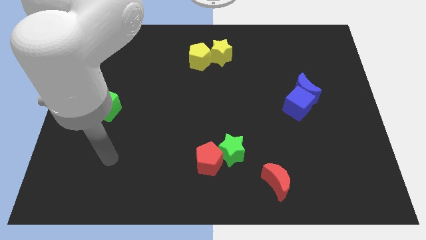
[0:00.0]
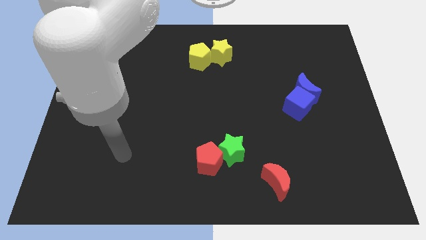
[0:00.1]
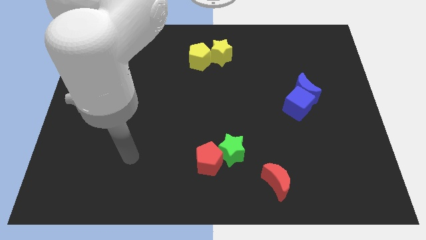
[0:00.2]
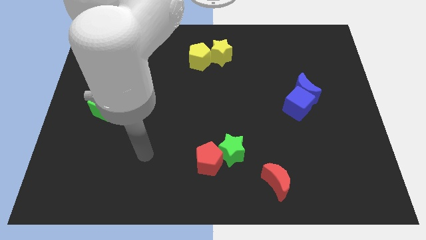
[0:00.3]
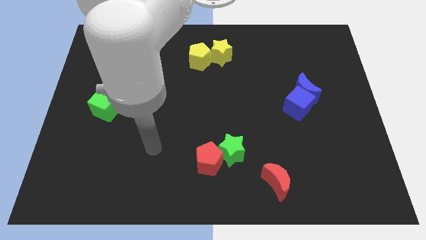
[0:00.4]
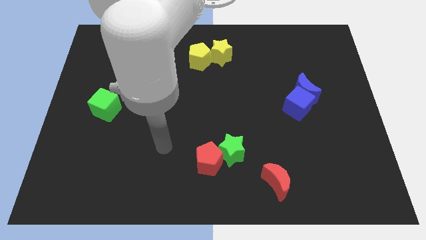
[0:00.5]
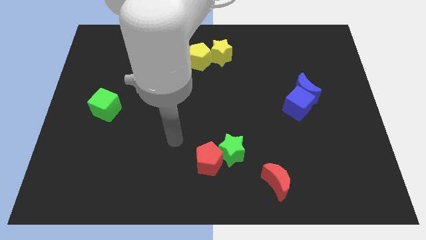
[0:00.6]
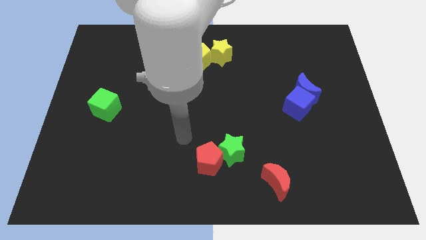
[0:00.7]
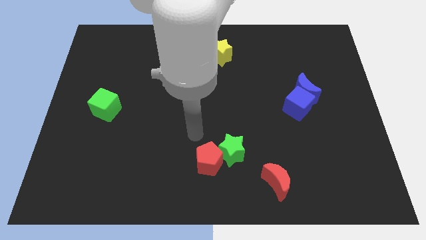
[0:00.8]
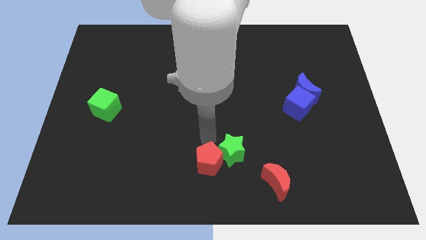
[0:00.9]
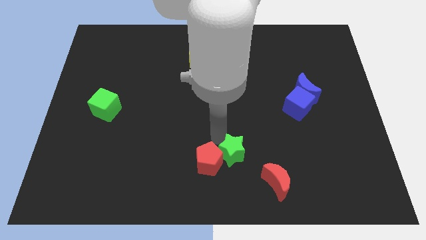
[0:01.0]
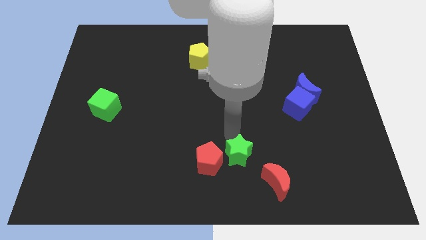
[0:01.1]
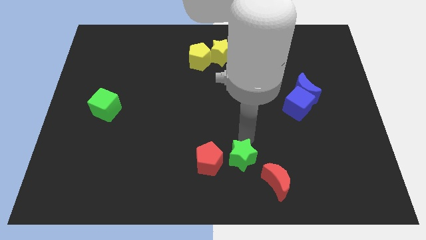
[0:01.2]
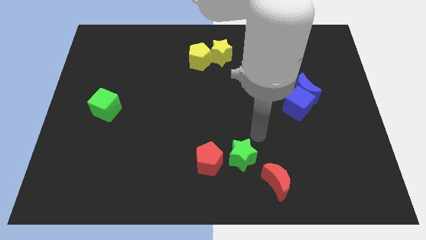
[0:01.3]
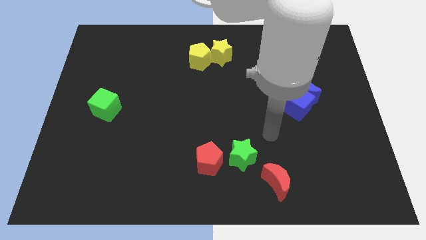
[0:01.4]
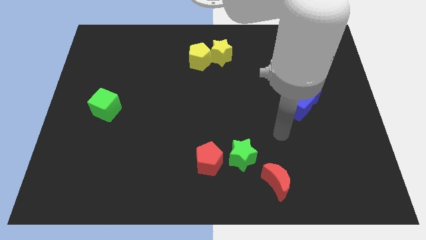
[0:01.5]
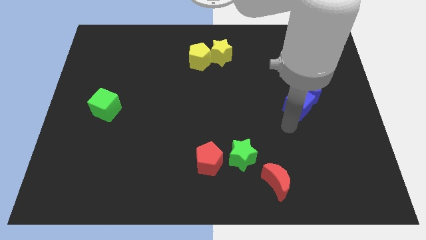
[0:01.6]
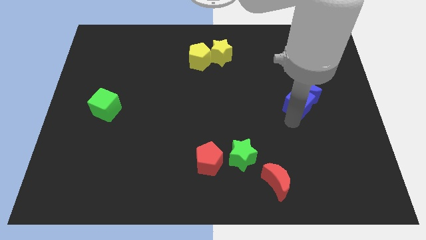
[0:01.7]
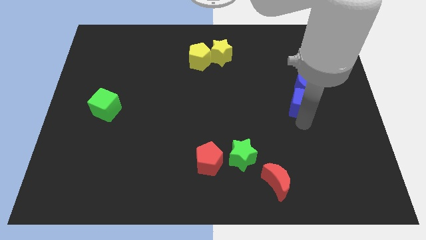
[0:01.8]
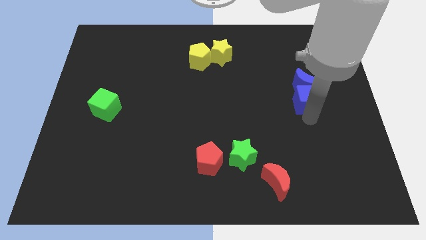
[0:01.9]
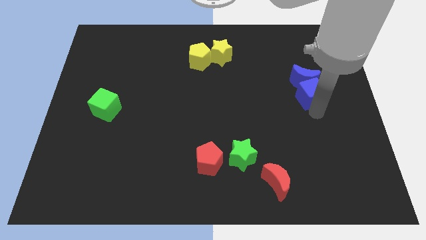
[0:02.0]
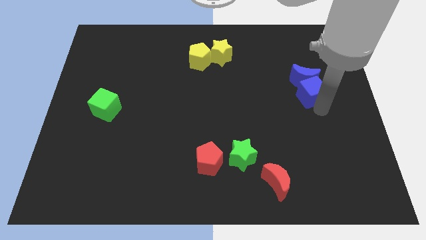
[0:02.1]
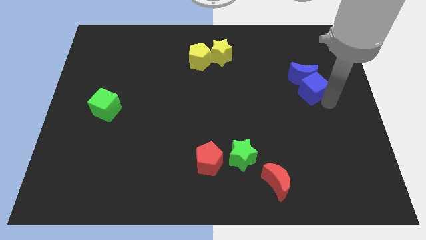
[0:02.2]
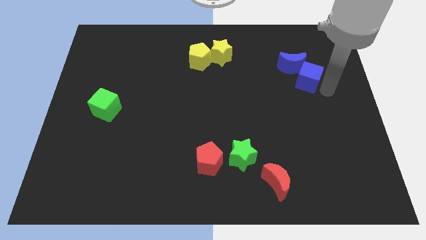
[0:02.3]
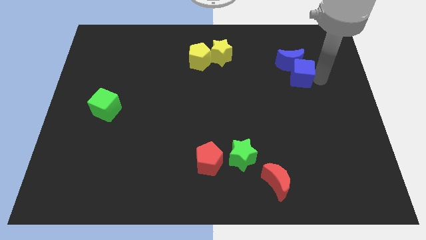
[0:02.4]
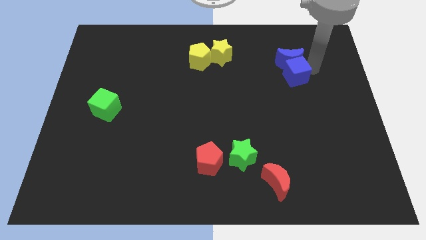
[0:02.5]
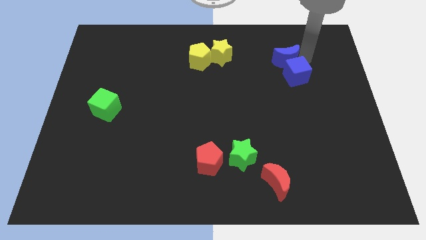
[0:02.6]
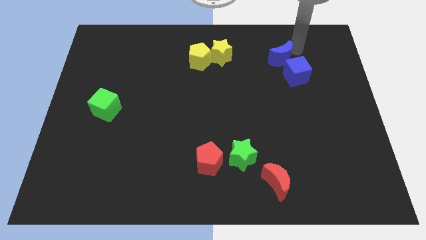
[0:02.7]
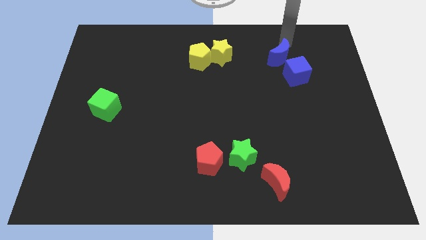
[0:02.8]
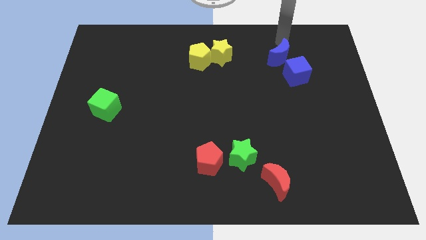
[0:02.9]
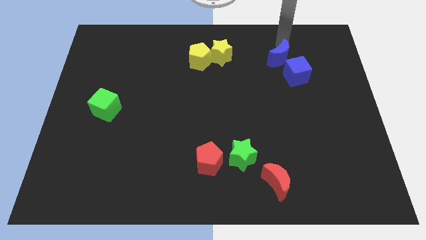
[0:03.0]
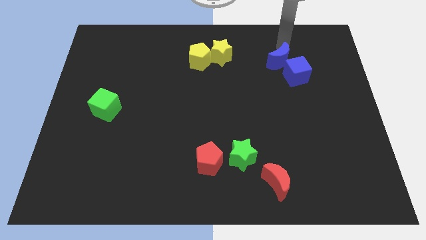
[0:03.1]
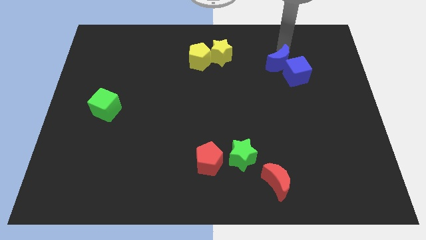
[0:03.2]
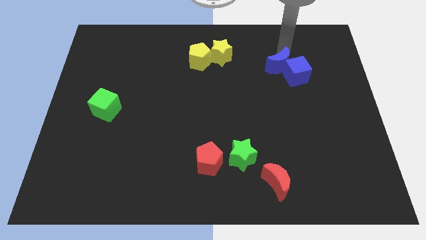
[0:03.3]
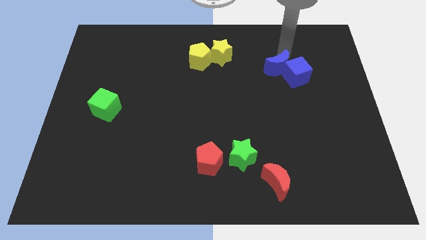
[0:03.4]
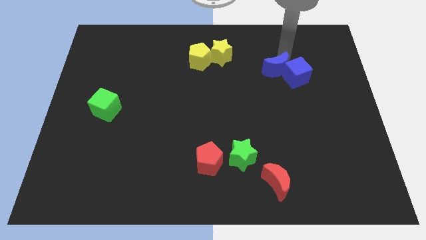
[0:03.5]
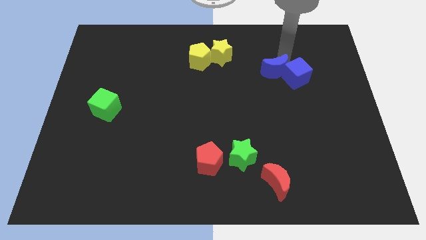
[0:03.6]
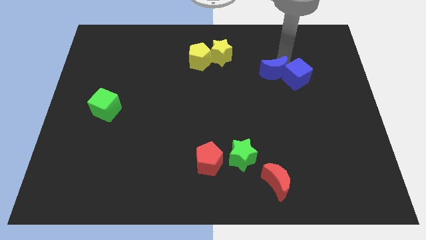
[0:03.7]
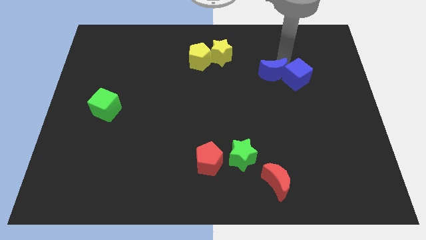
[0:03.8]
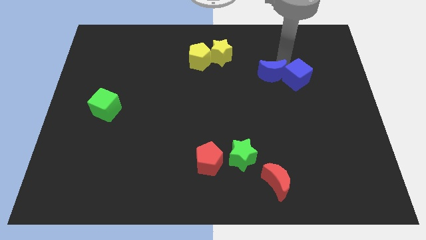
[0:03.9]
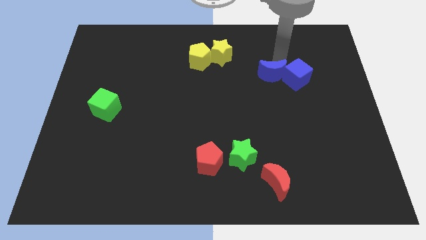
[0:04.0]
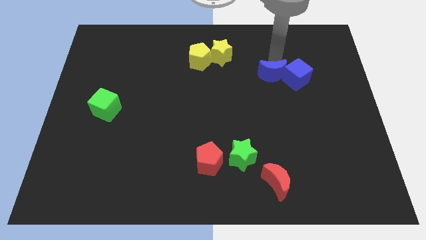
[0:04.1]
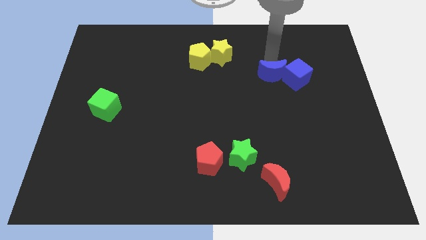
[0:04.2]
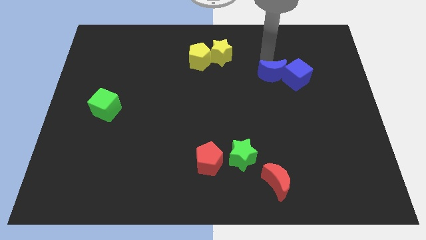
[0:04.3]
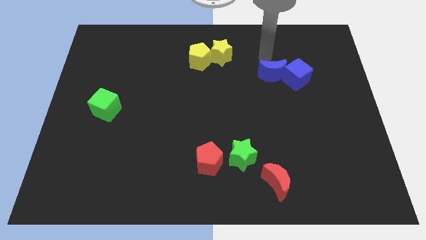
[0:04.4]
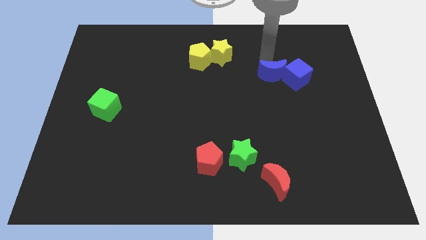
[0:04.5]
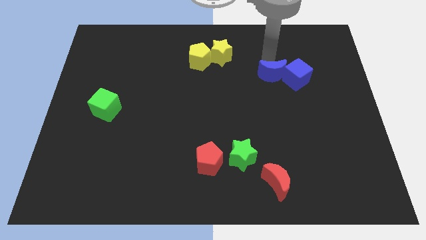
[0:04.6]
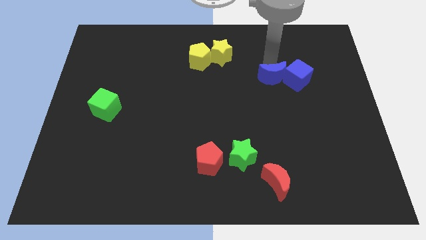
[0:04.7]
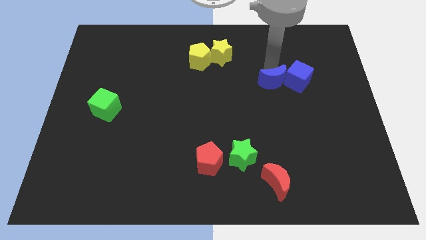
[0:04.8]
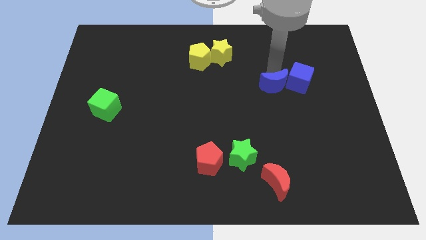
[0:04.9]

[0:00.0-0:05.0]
slide the blue moon a little bit to the left

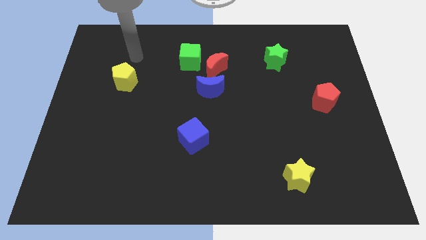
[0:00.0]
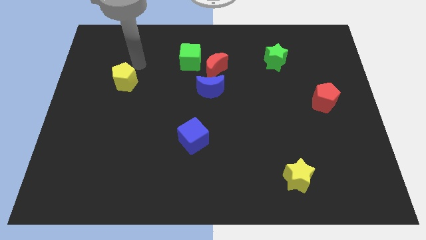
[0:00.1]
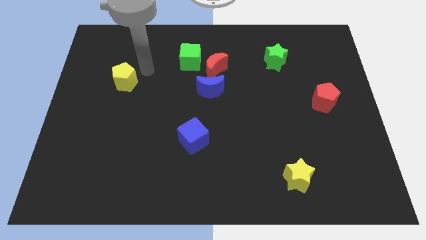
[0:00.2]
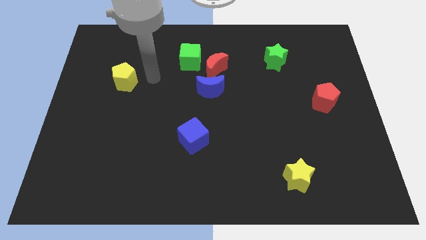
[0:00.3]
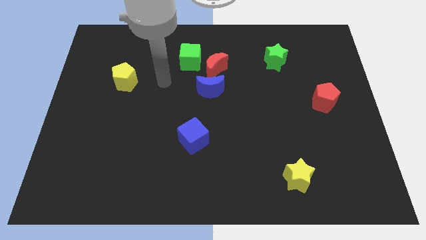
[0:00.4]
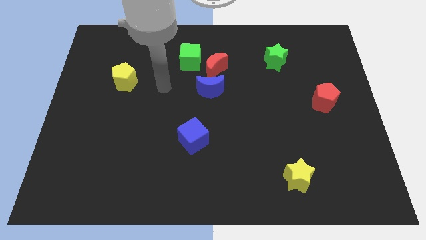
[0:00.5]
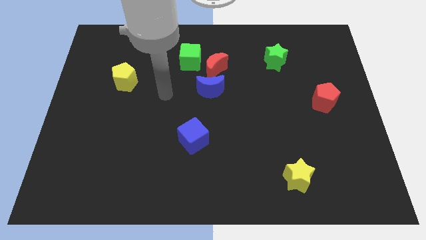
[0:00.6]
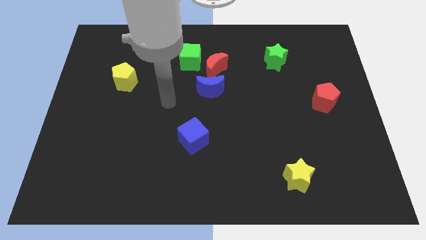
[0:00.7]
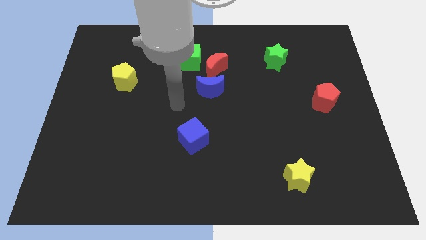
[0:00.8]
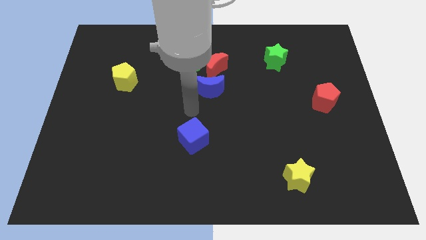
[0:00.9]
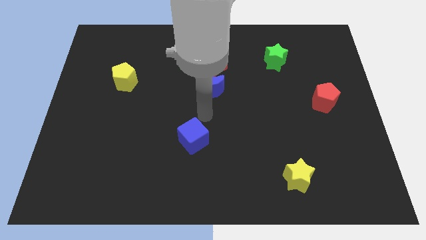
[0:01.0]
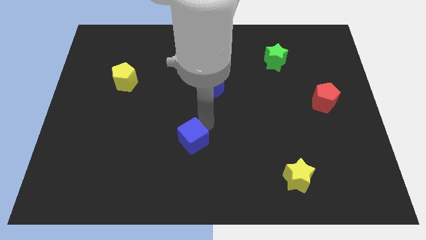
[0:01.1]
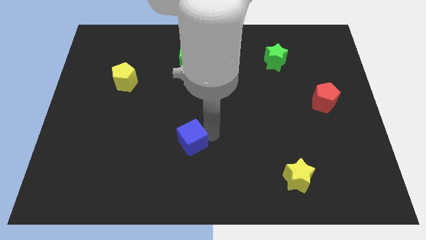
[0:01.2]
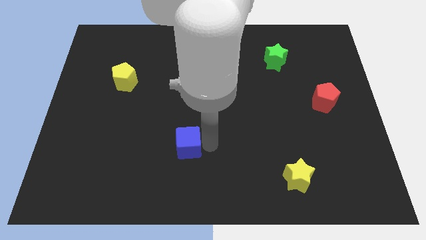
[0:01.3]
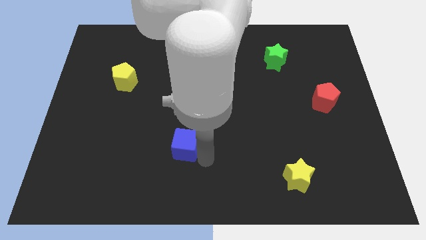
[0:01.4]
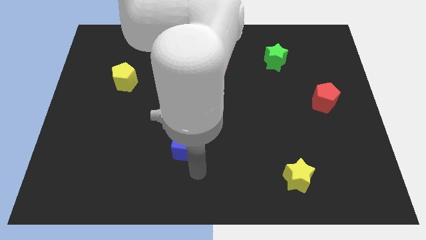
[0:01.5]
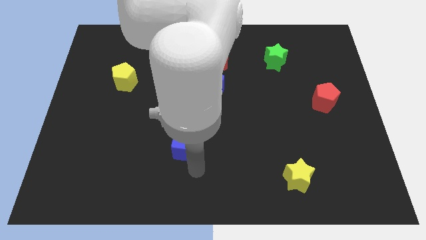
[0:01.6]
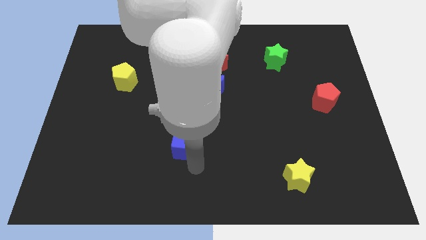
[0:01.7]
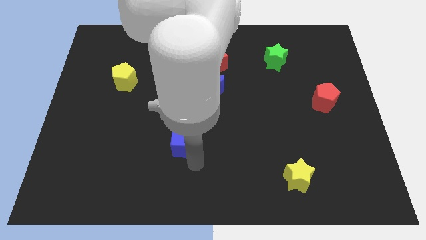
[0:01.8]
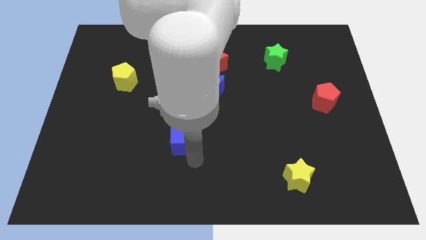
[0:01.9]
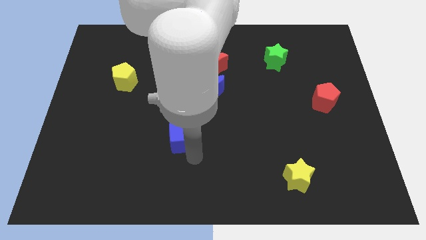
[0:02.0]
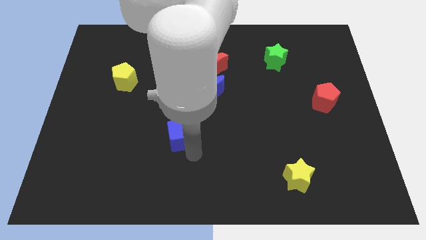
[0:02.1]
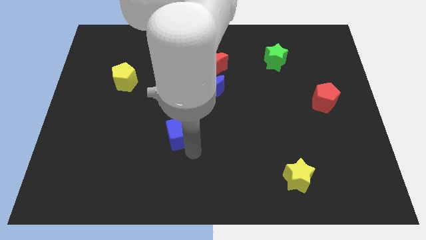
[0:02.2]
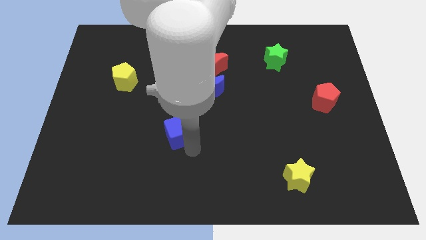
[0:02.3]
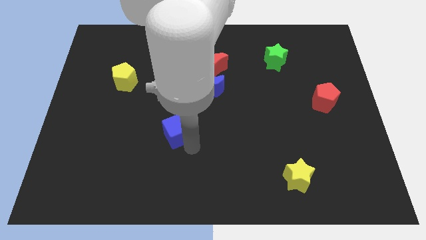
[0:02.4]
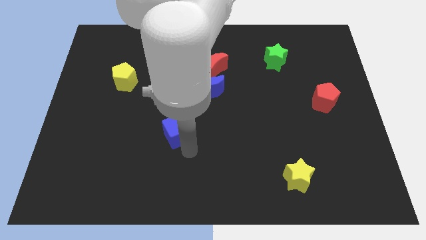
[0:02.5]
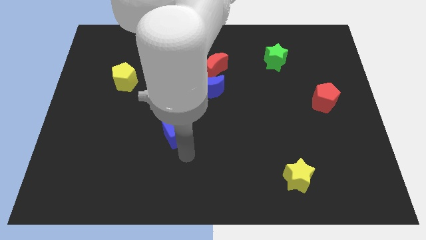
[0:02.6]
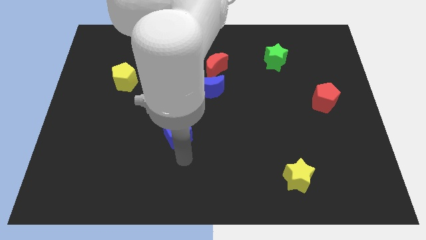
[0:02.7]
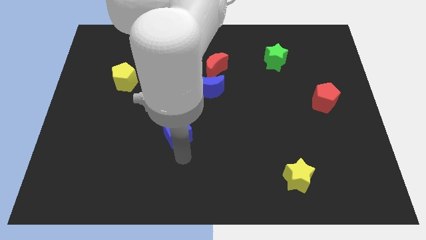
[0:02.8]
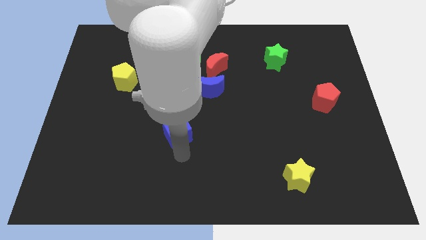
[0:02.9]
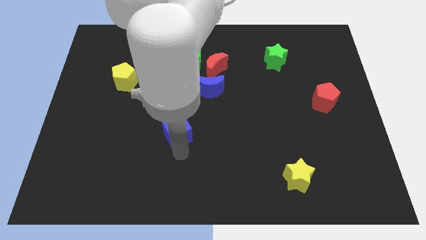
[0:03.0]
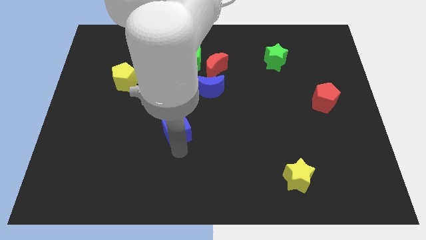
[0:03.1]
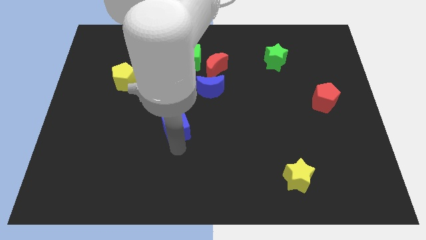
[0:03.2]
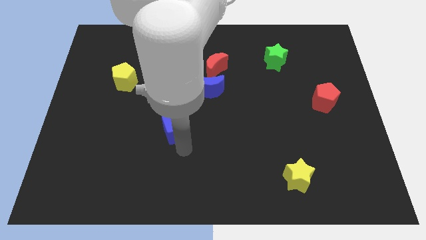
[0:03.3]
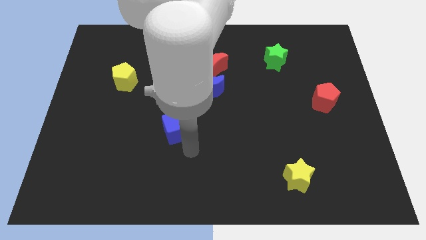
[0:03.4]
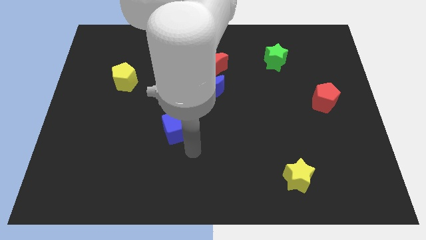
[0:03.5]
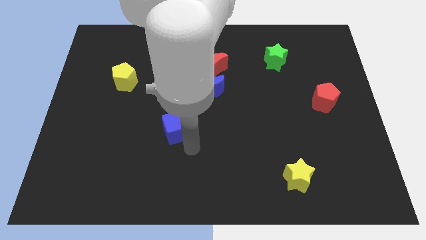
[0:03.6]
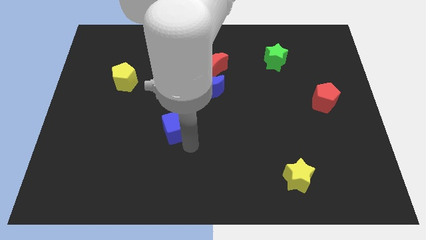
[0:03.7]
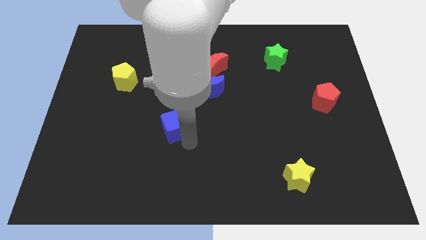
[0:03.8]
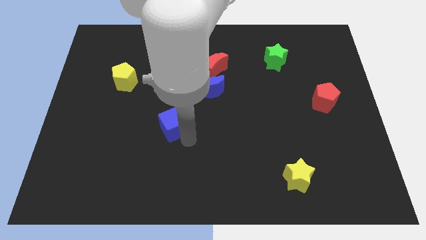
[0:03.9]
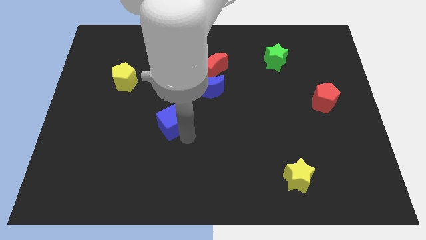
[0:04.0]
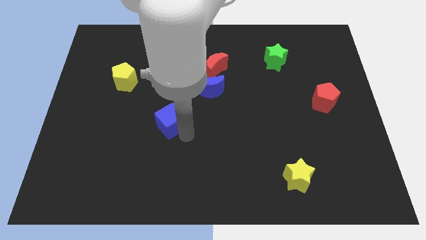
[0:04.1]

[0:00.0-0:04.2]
slide the blue cube a little bit up and to the left
